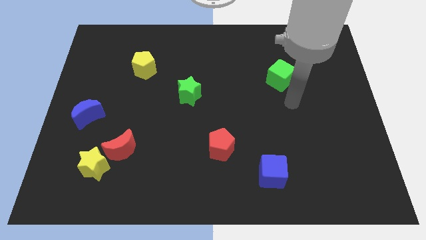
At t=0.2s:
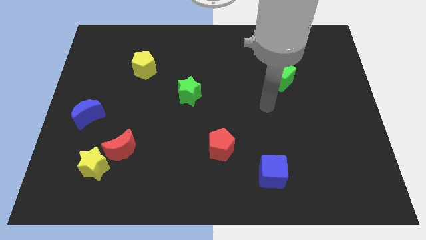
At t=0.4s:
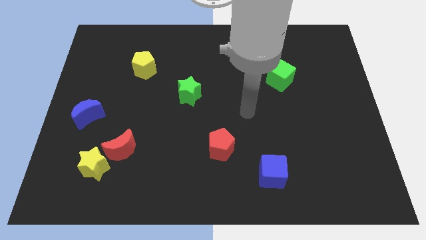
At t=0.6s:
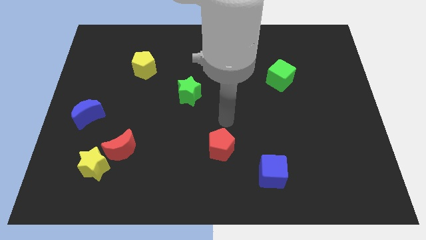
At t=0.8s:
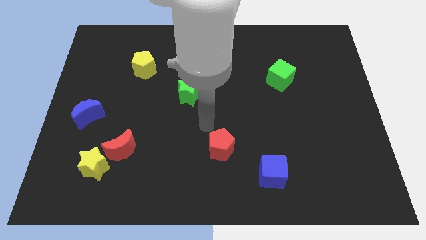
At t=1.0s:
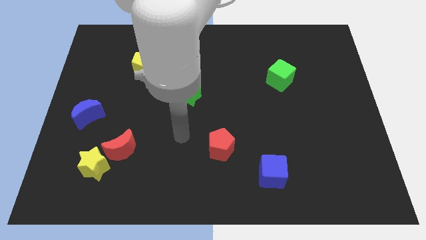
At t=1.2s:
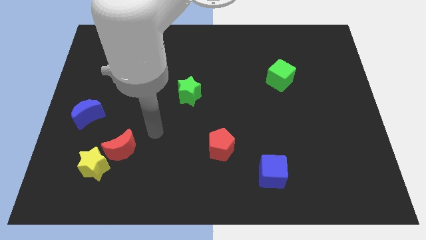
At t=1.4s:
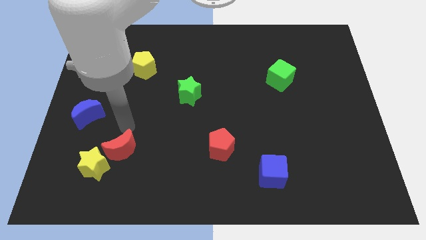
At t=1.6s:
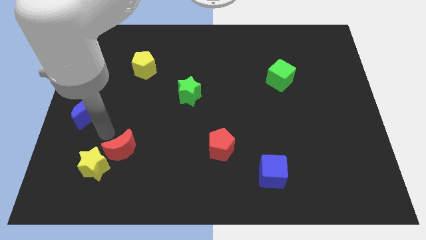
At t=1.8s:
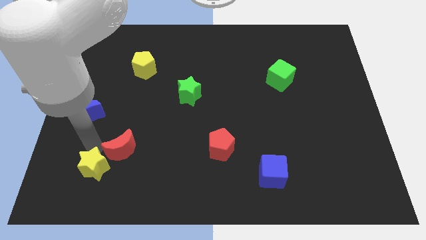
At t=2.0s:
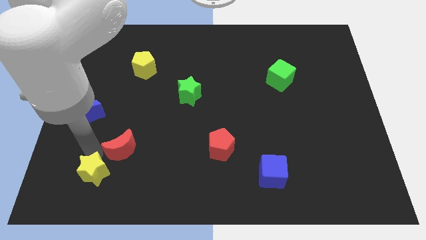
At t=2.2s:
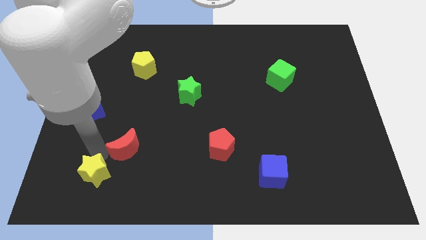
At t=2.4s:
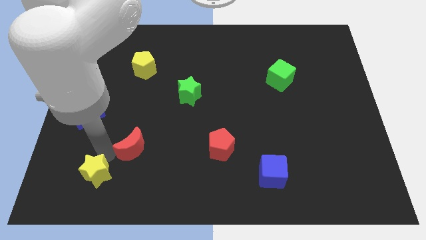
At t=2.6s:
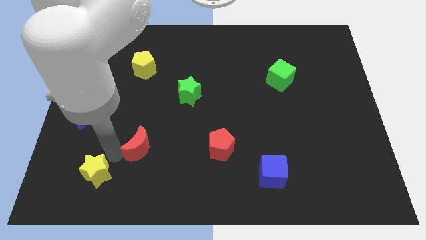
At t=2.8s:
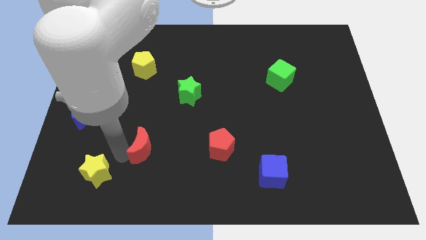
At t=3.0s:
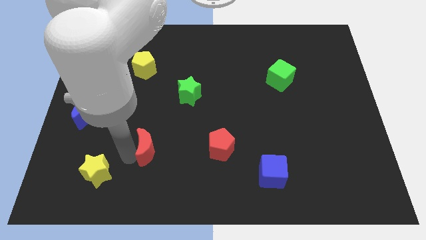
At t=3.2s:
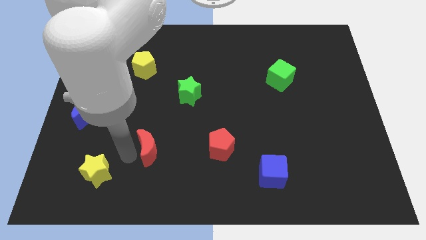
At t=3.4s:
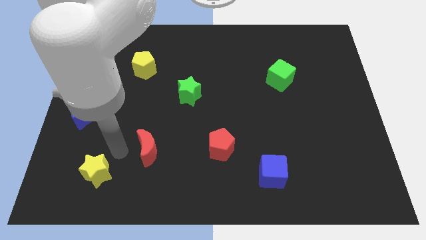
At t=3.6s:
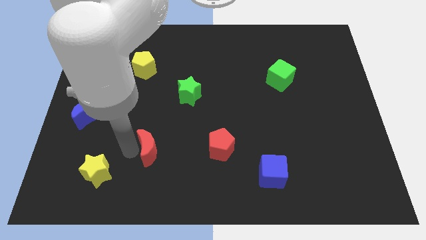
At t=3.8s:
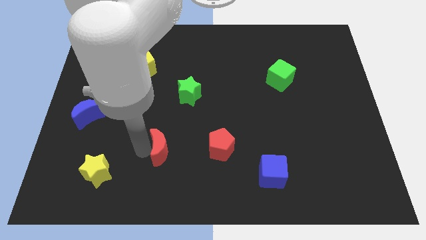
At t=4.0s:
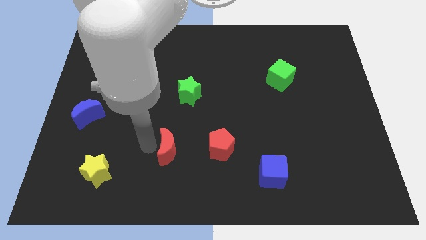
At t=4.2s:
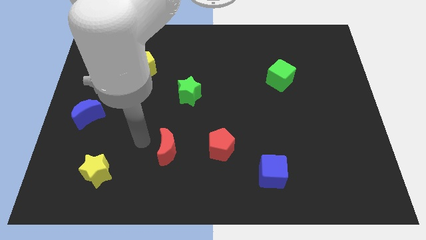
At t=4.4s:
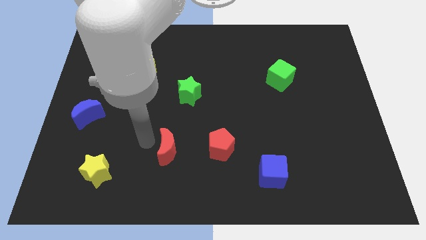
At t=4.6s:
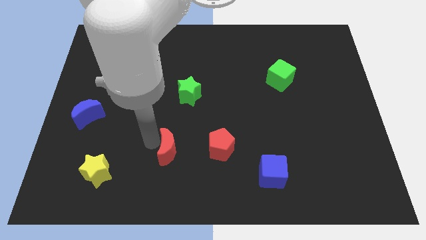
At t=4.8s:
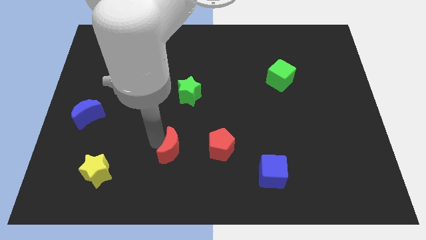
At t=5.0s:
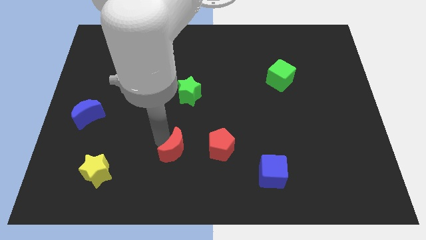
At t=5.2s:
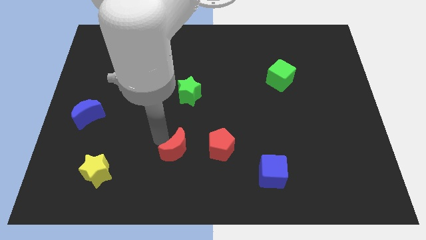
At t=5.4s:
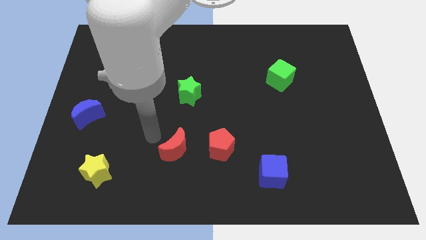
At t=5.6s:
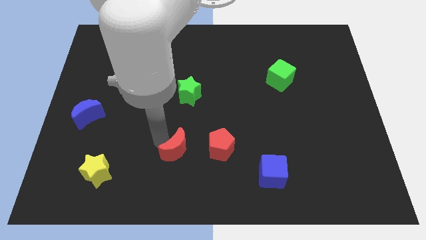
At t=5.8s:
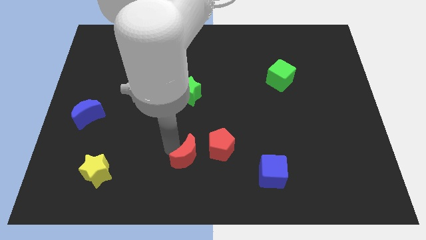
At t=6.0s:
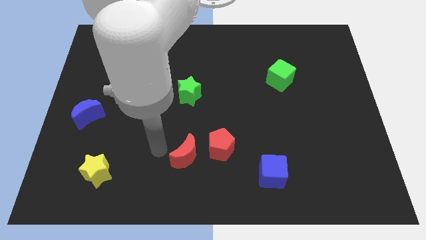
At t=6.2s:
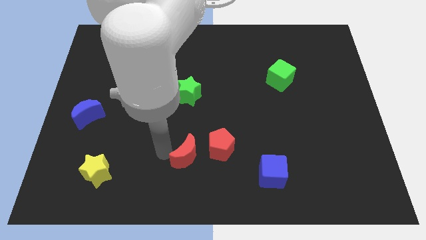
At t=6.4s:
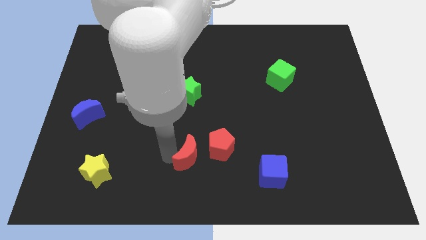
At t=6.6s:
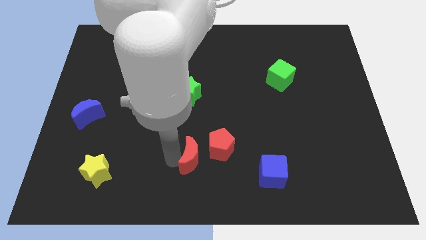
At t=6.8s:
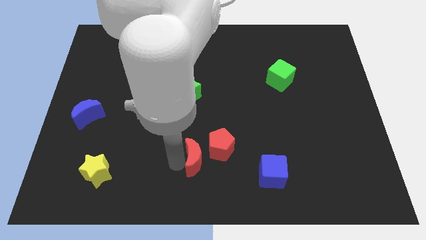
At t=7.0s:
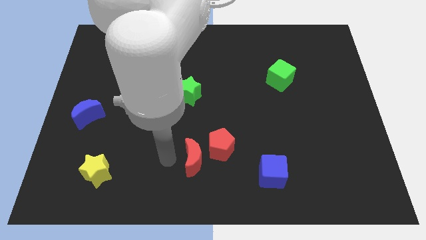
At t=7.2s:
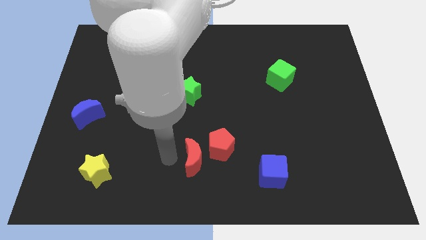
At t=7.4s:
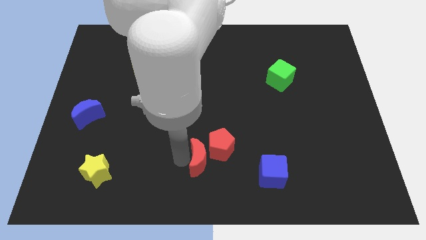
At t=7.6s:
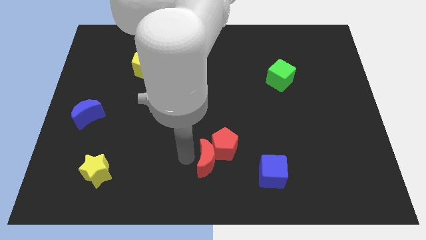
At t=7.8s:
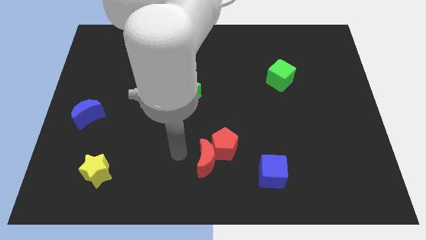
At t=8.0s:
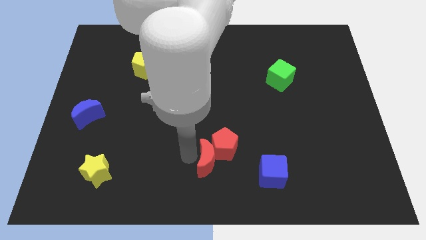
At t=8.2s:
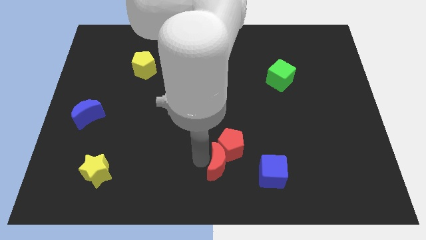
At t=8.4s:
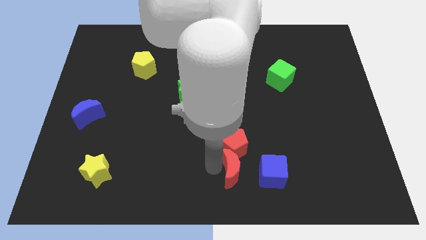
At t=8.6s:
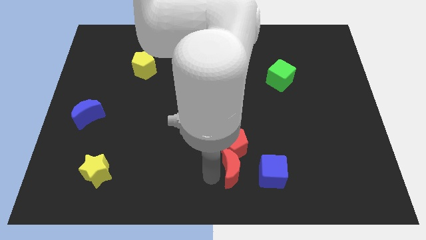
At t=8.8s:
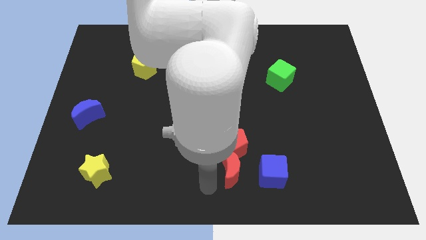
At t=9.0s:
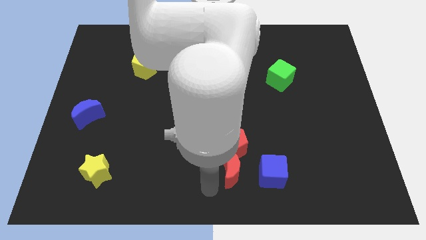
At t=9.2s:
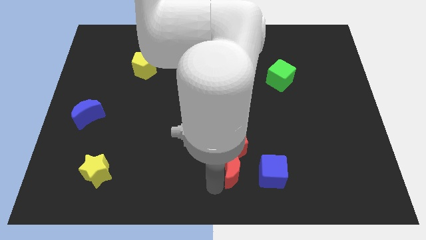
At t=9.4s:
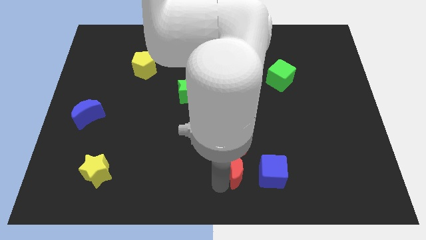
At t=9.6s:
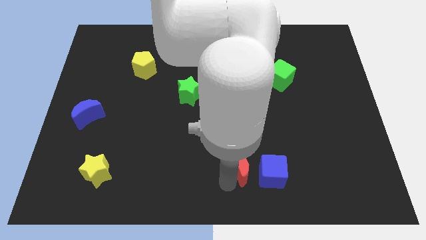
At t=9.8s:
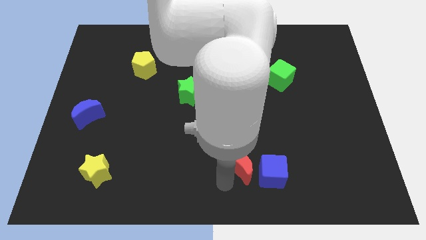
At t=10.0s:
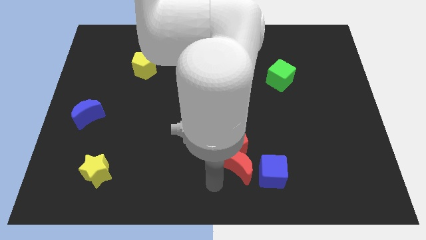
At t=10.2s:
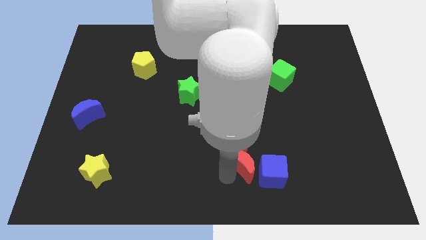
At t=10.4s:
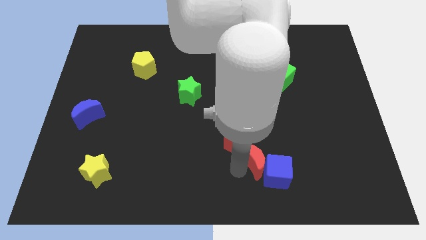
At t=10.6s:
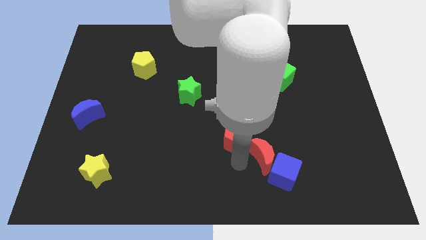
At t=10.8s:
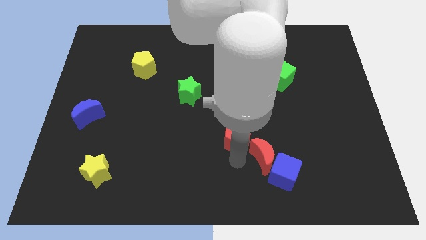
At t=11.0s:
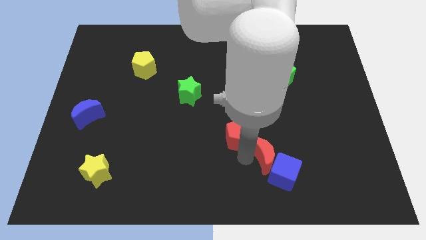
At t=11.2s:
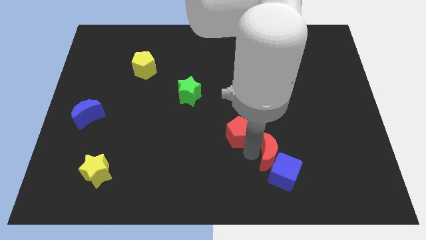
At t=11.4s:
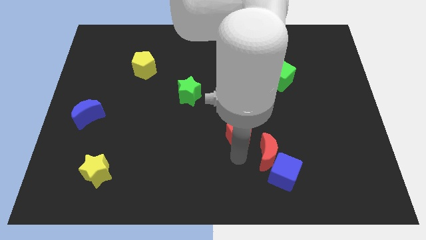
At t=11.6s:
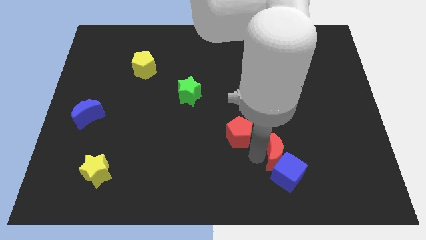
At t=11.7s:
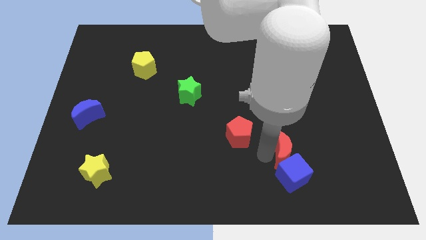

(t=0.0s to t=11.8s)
move the red moon diagonally up and to the right of the blue cube

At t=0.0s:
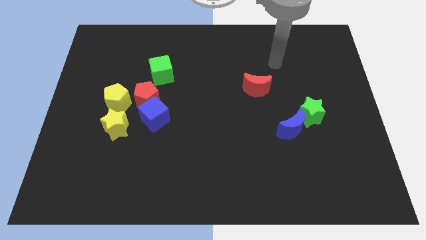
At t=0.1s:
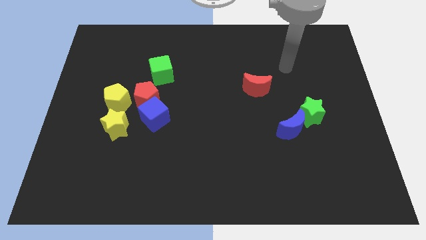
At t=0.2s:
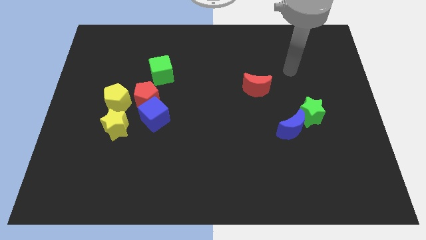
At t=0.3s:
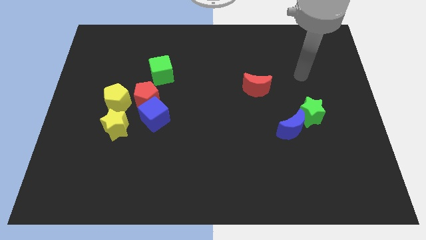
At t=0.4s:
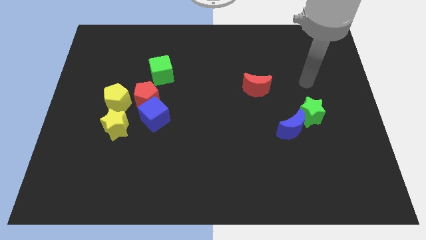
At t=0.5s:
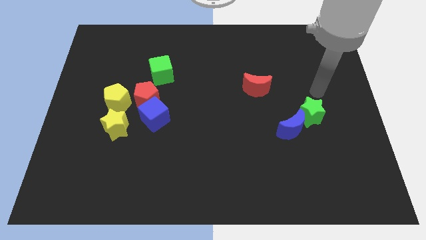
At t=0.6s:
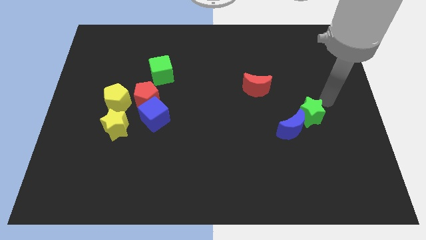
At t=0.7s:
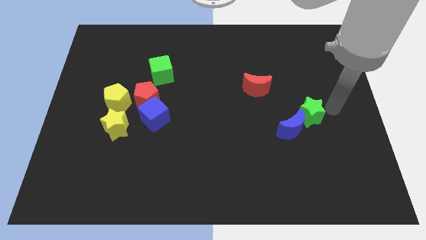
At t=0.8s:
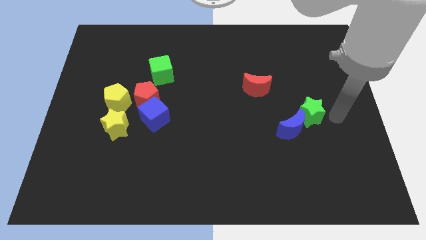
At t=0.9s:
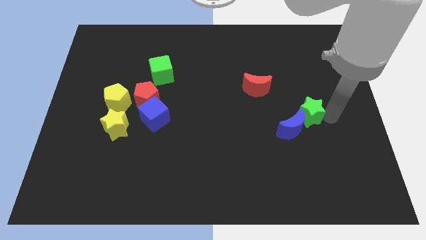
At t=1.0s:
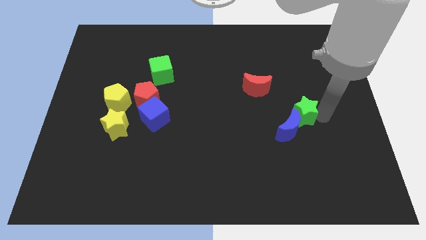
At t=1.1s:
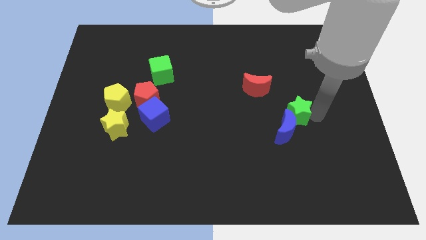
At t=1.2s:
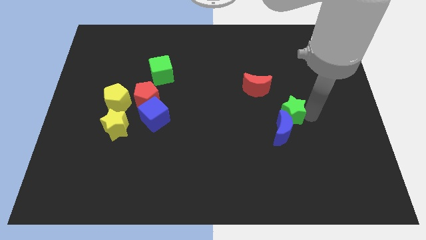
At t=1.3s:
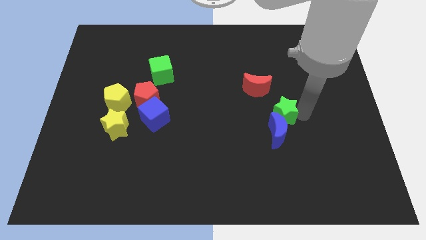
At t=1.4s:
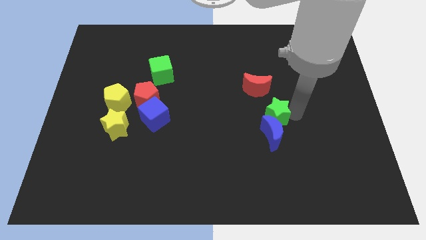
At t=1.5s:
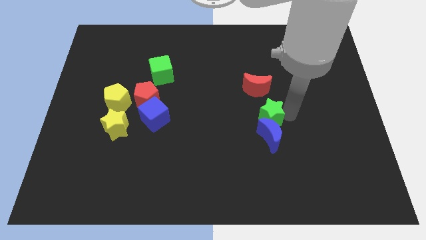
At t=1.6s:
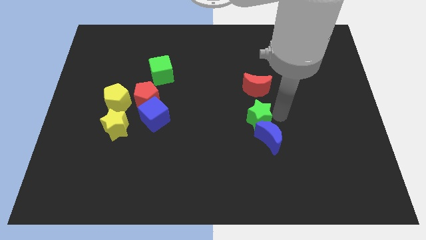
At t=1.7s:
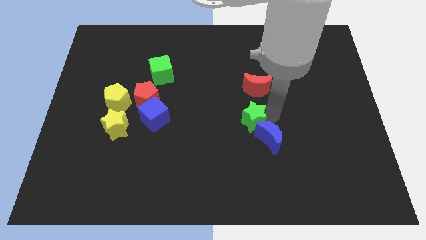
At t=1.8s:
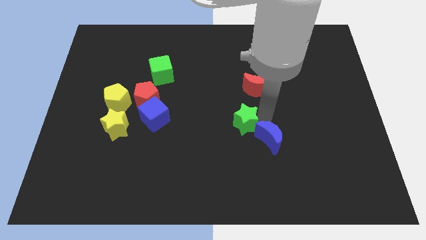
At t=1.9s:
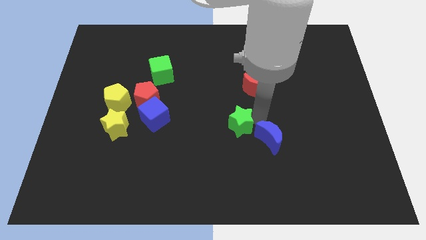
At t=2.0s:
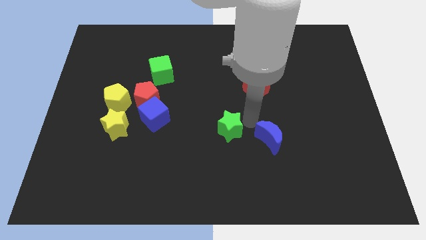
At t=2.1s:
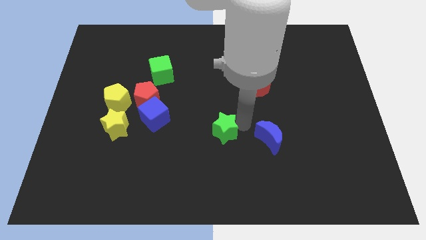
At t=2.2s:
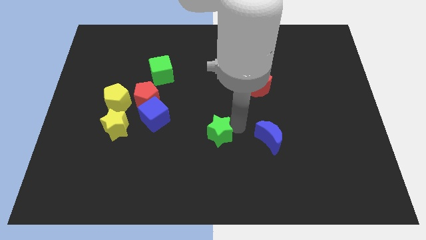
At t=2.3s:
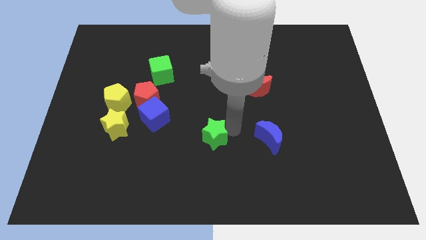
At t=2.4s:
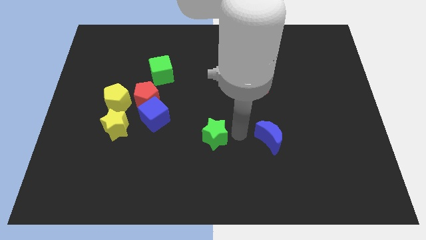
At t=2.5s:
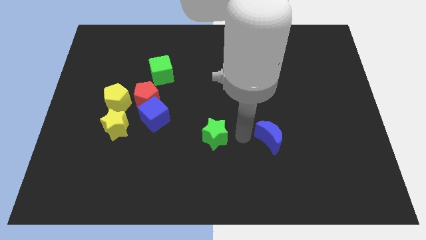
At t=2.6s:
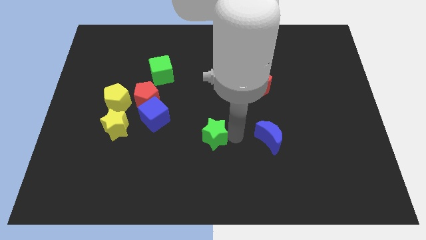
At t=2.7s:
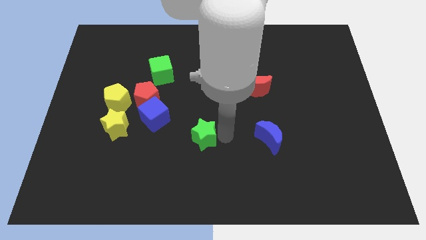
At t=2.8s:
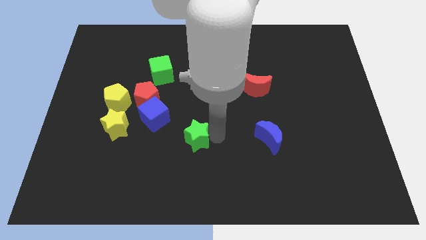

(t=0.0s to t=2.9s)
put the green star to the bottom right side of the blue cube
